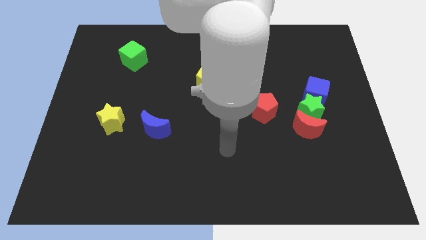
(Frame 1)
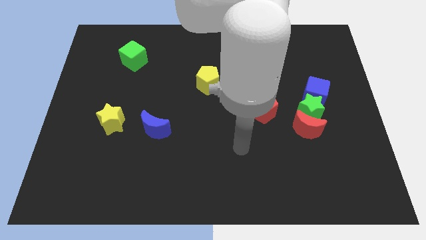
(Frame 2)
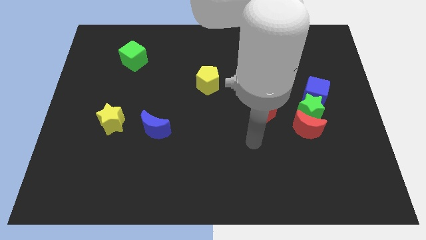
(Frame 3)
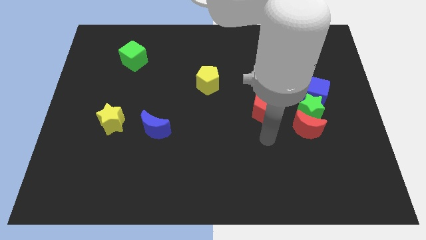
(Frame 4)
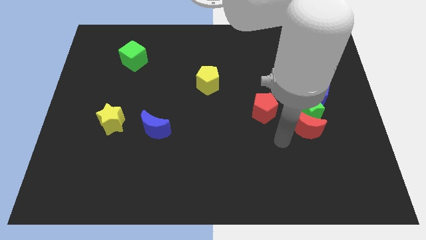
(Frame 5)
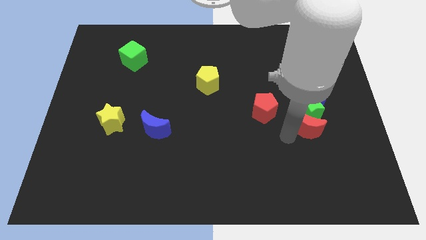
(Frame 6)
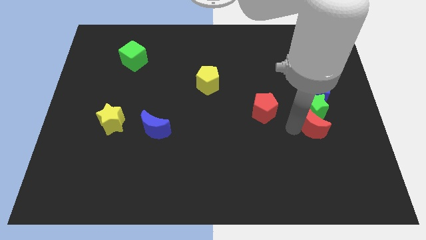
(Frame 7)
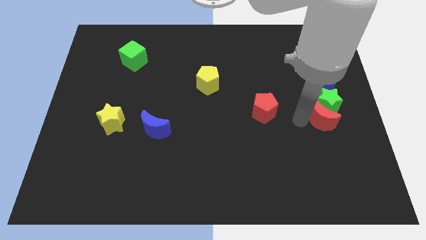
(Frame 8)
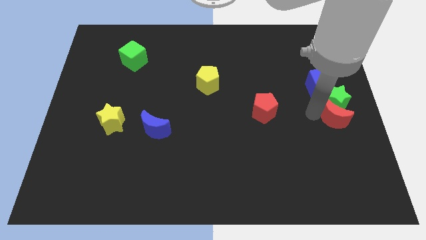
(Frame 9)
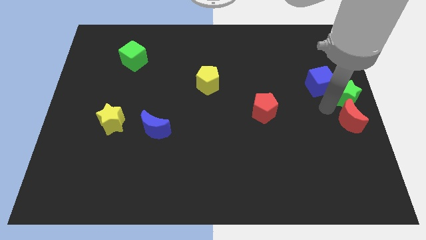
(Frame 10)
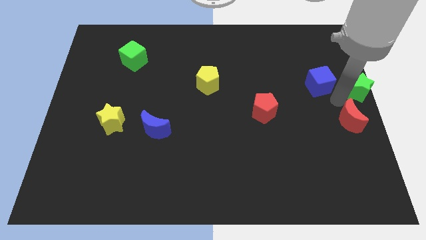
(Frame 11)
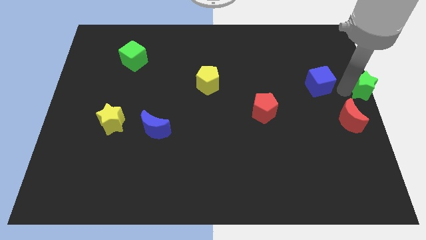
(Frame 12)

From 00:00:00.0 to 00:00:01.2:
move the blue cube away from the green star

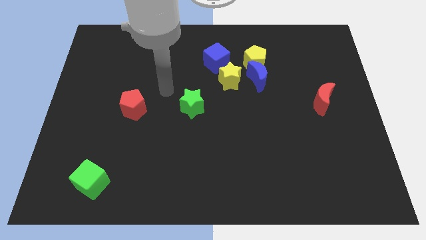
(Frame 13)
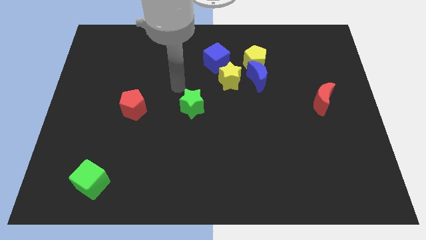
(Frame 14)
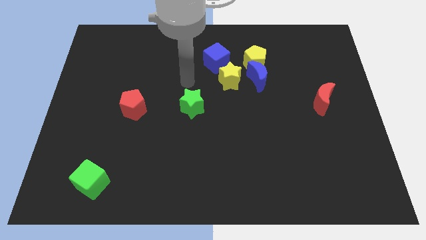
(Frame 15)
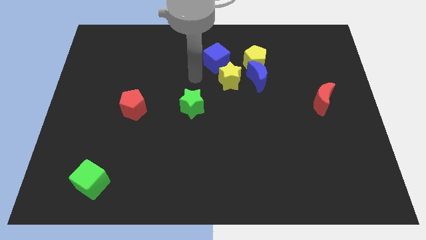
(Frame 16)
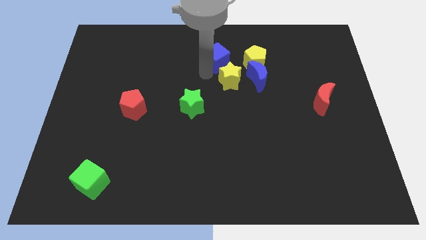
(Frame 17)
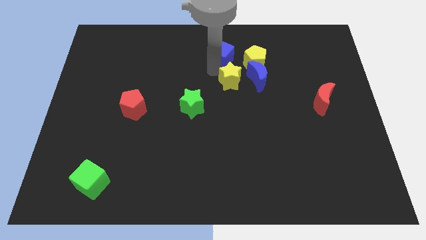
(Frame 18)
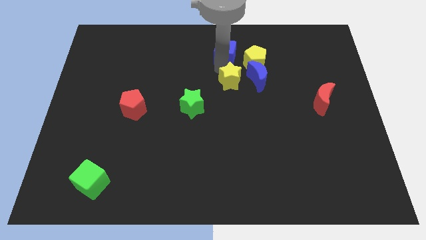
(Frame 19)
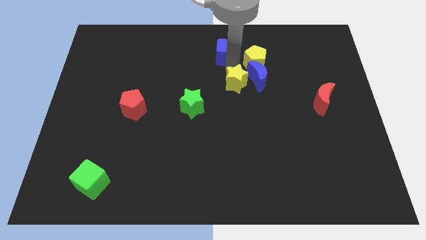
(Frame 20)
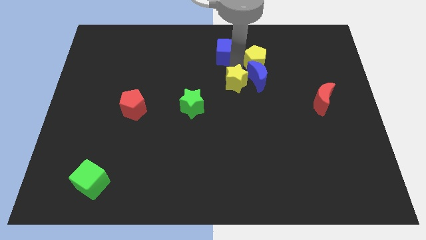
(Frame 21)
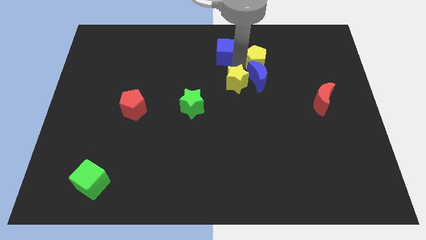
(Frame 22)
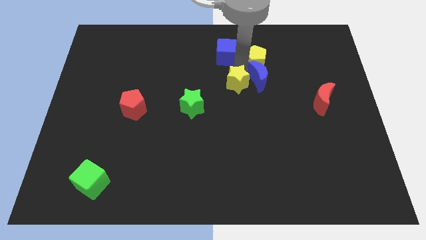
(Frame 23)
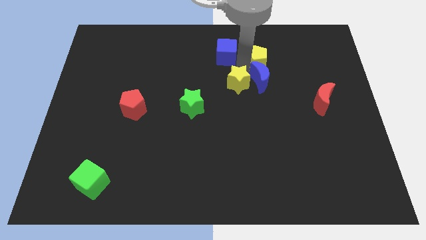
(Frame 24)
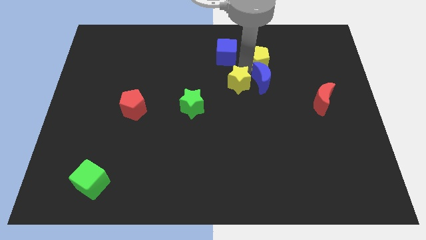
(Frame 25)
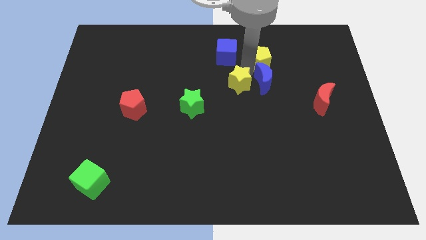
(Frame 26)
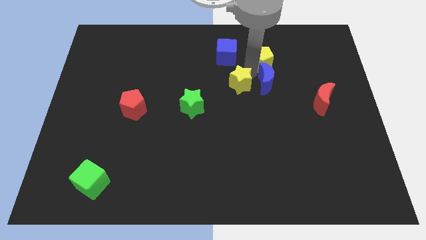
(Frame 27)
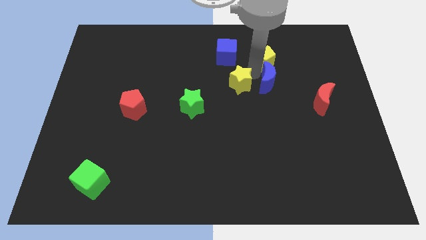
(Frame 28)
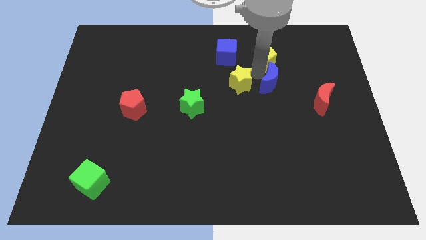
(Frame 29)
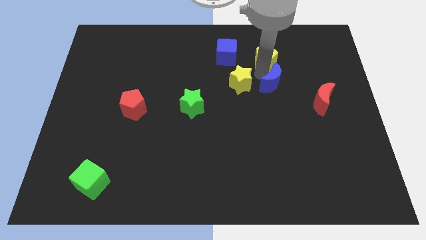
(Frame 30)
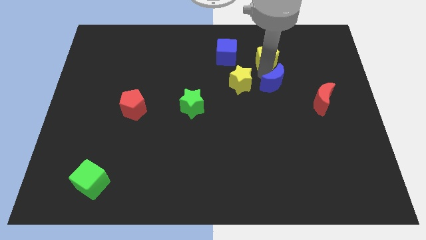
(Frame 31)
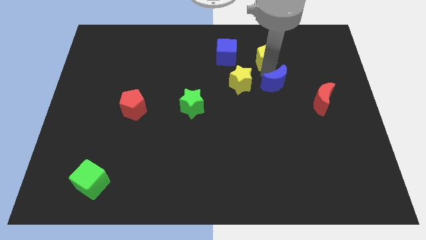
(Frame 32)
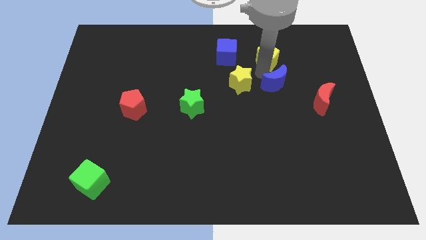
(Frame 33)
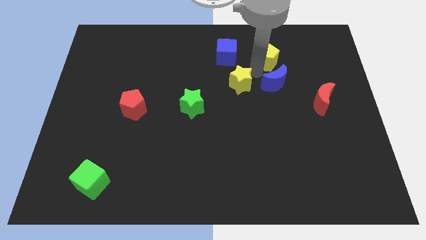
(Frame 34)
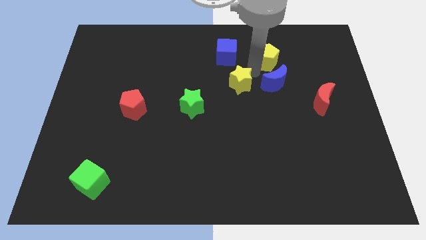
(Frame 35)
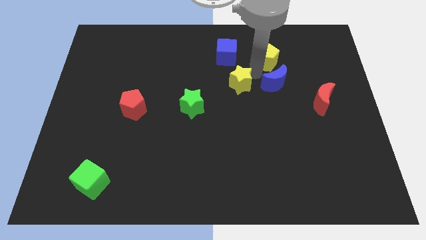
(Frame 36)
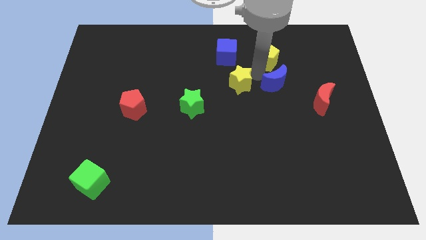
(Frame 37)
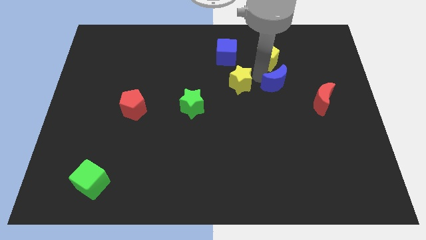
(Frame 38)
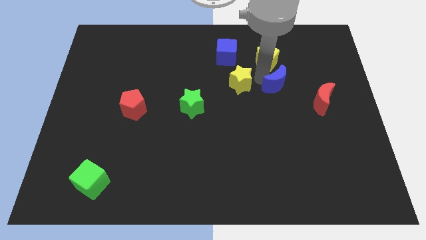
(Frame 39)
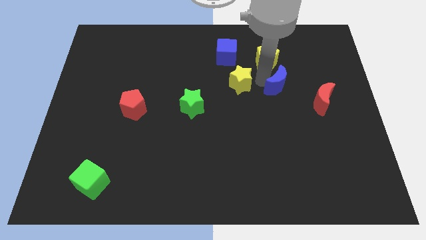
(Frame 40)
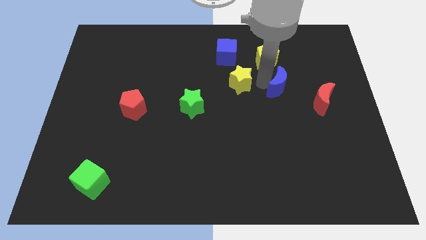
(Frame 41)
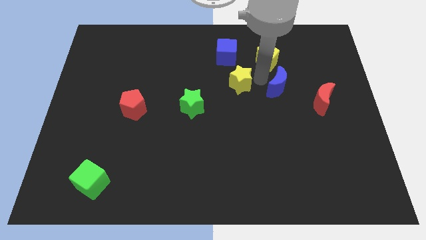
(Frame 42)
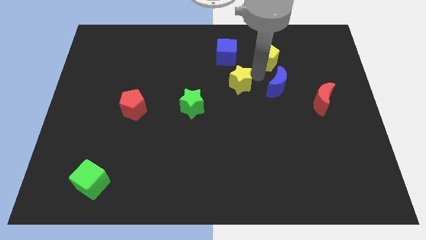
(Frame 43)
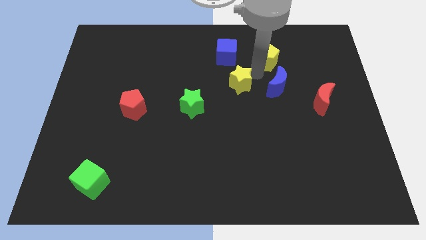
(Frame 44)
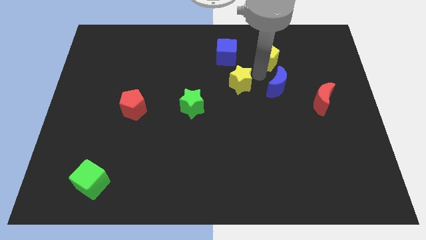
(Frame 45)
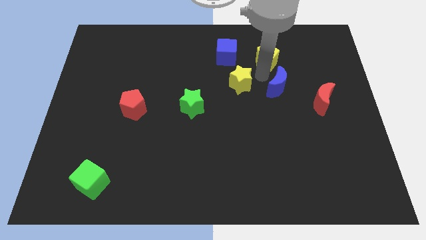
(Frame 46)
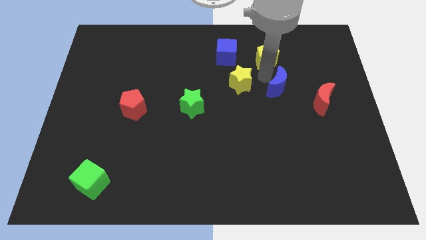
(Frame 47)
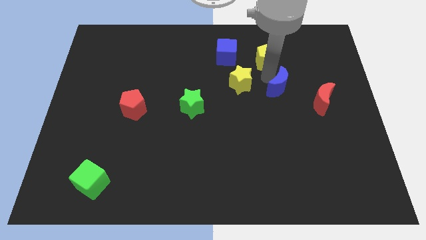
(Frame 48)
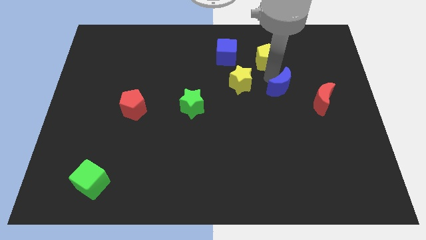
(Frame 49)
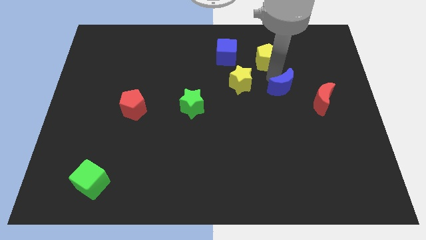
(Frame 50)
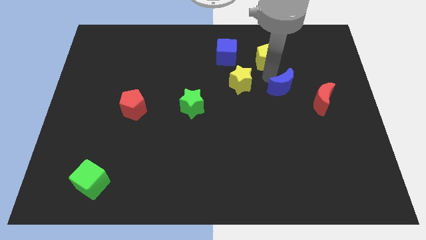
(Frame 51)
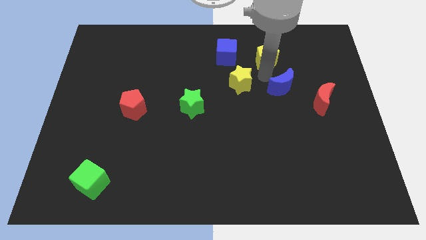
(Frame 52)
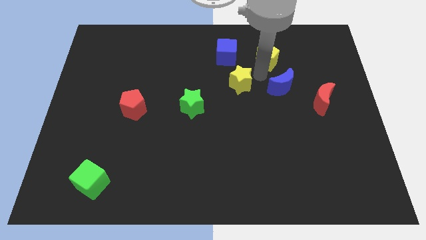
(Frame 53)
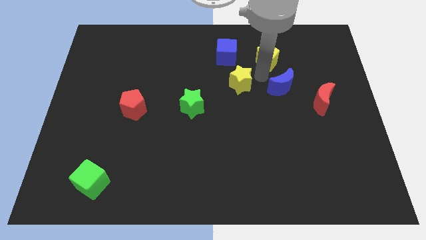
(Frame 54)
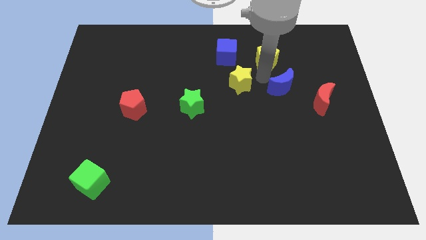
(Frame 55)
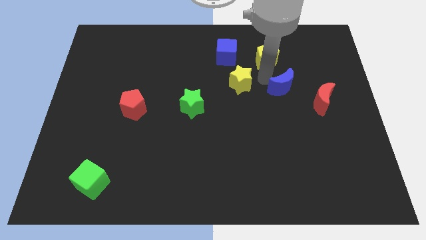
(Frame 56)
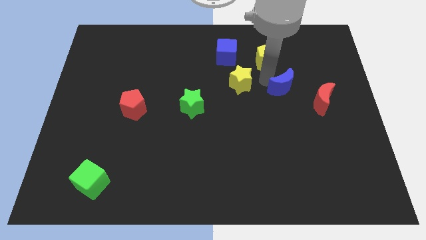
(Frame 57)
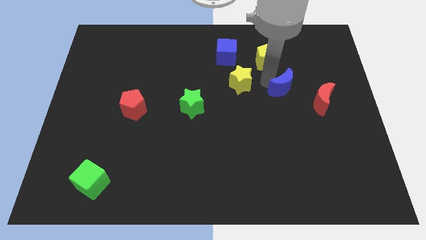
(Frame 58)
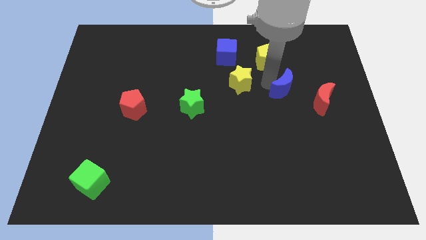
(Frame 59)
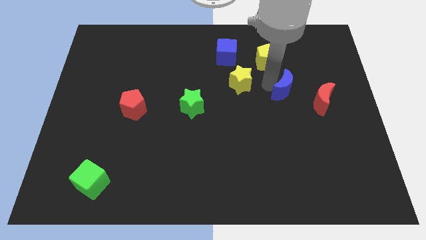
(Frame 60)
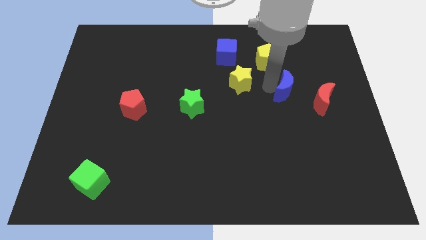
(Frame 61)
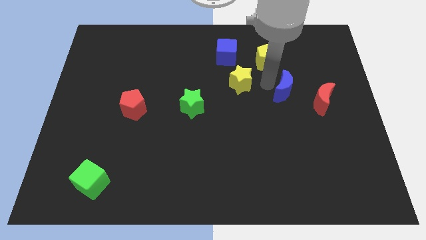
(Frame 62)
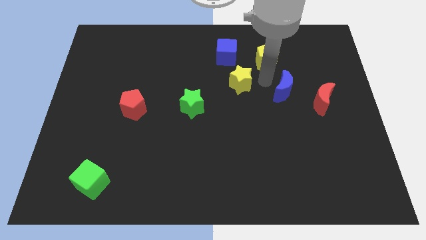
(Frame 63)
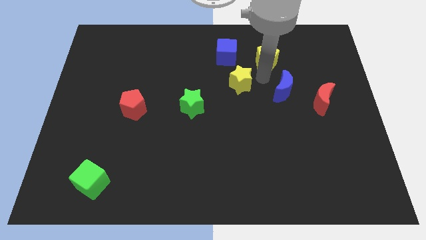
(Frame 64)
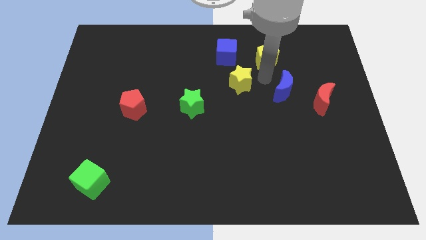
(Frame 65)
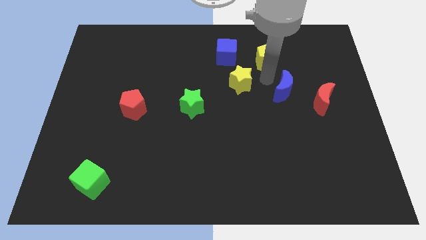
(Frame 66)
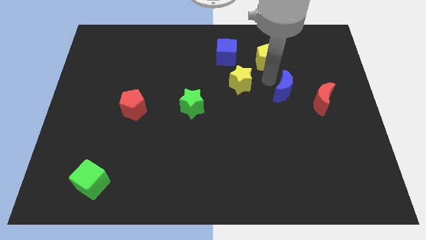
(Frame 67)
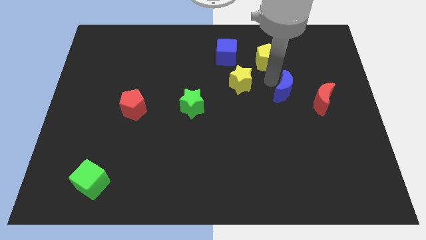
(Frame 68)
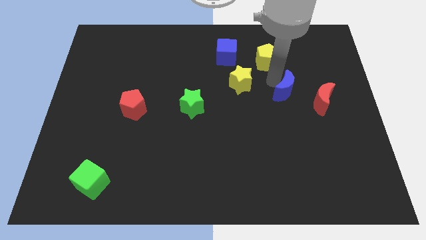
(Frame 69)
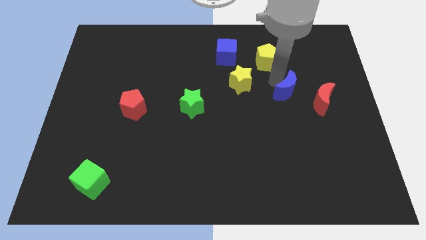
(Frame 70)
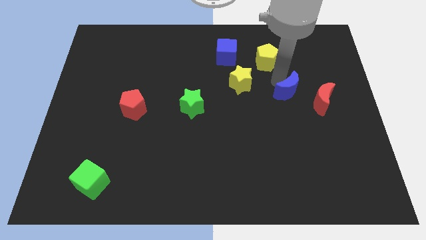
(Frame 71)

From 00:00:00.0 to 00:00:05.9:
move the blue moon away from the yellow pentagon and yellow star

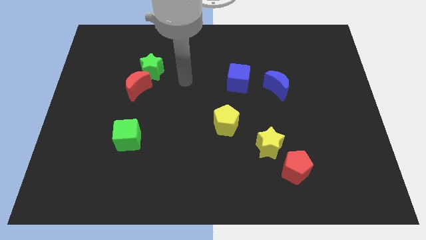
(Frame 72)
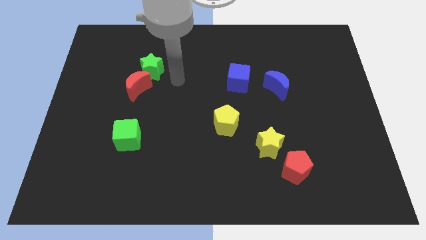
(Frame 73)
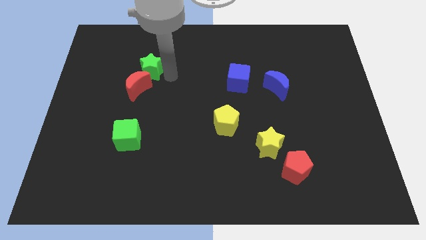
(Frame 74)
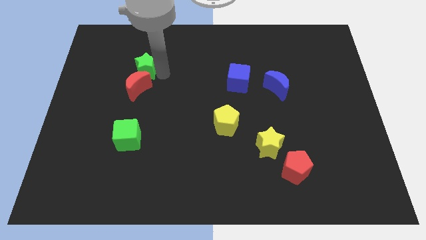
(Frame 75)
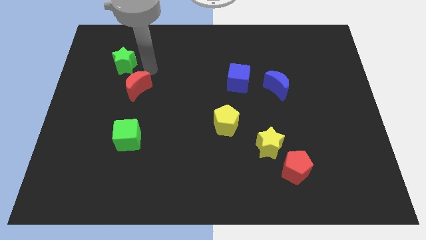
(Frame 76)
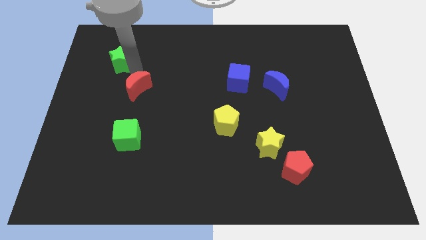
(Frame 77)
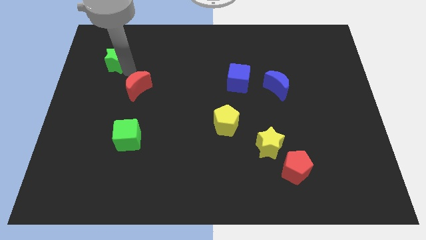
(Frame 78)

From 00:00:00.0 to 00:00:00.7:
separate the red moon from the green star

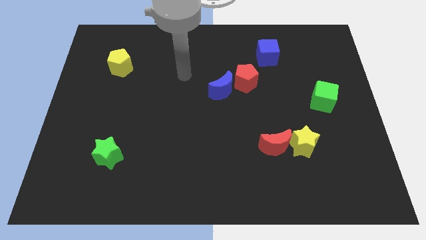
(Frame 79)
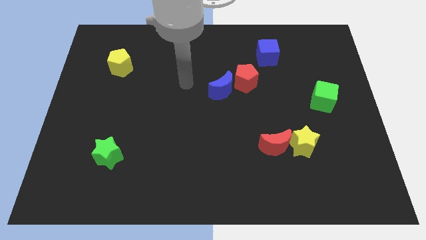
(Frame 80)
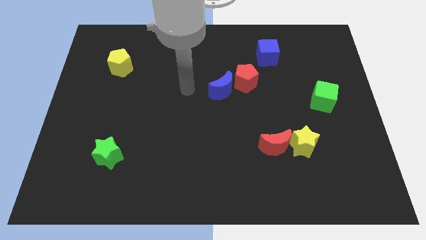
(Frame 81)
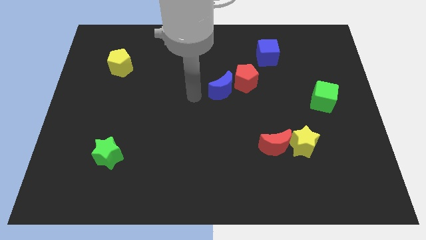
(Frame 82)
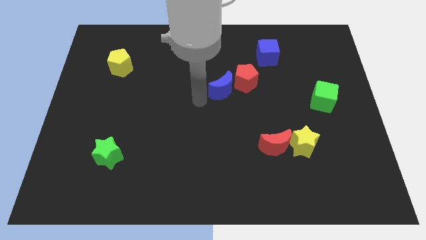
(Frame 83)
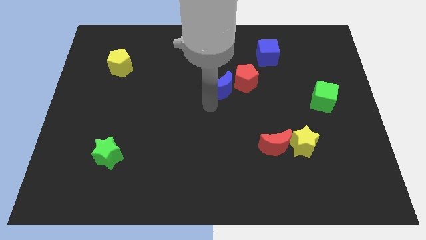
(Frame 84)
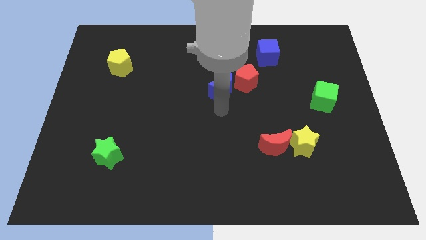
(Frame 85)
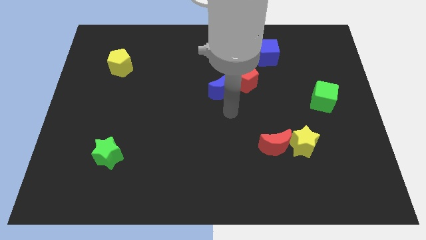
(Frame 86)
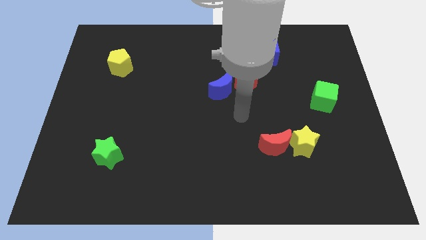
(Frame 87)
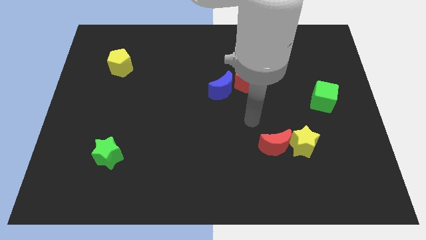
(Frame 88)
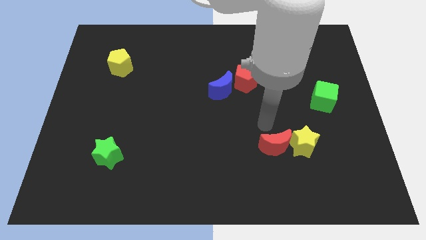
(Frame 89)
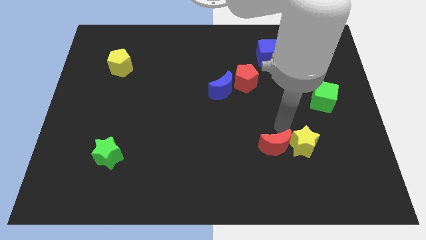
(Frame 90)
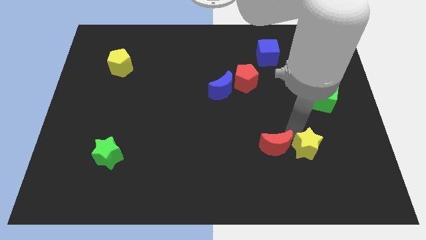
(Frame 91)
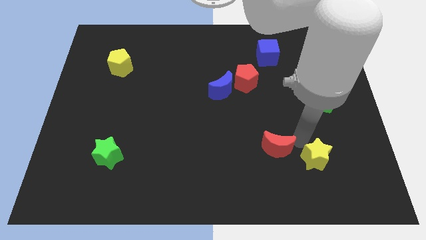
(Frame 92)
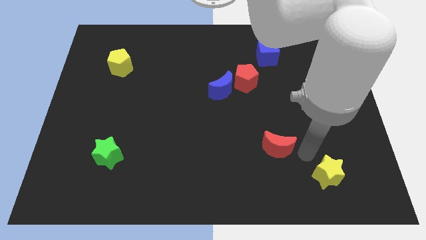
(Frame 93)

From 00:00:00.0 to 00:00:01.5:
move the red moon away from the yellow star
